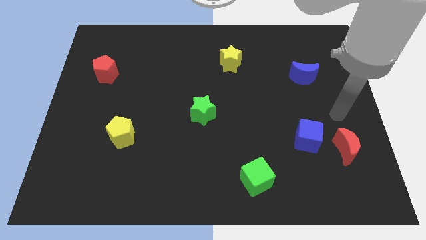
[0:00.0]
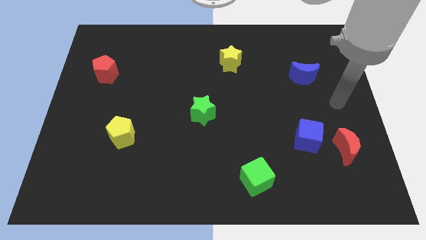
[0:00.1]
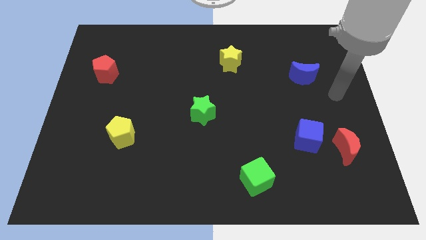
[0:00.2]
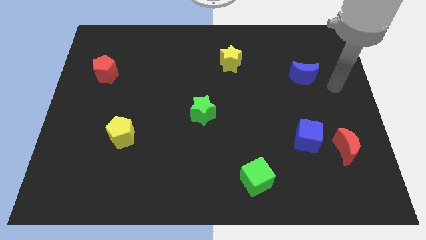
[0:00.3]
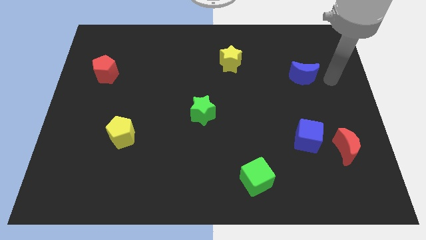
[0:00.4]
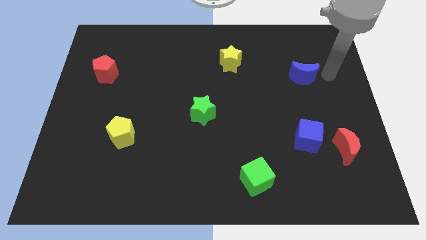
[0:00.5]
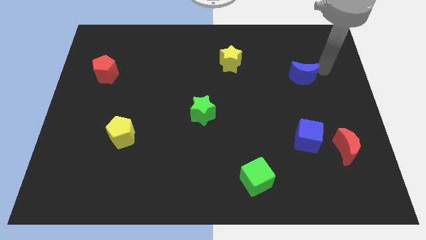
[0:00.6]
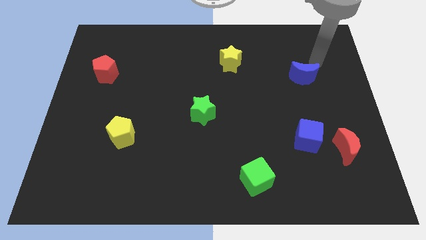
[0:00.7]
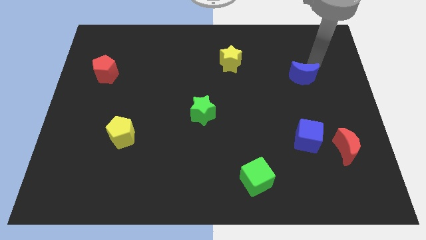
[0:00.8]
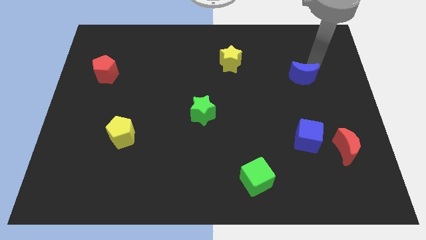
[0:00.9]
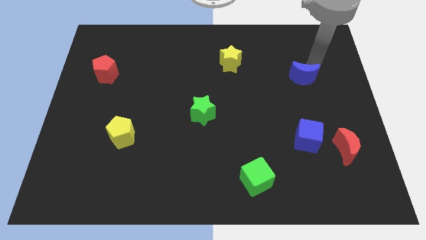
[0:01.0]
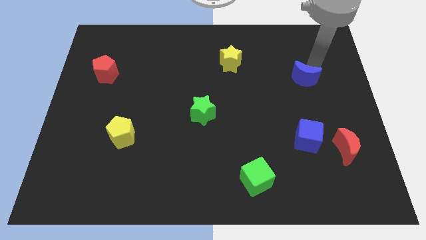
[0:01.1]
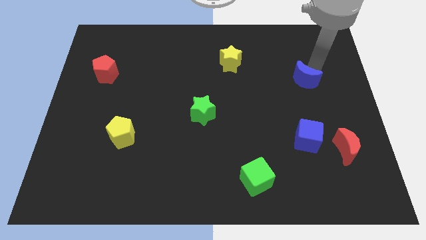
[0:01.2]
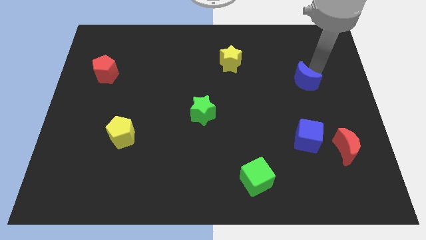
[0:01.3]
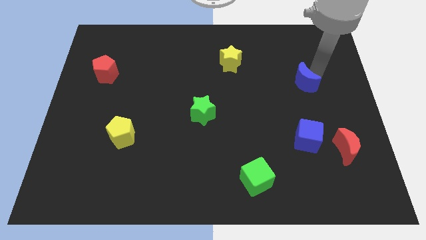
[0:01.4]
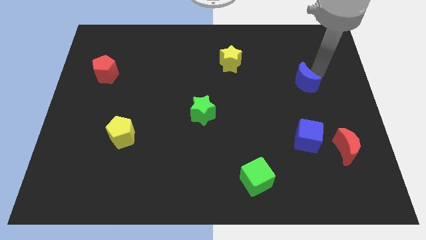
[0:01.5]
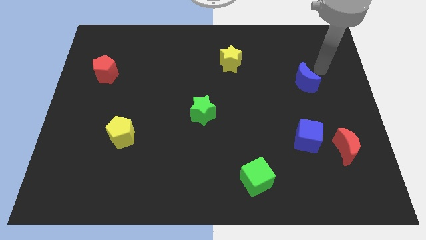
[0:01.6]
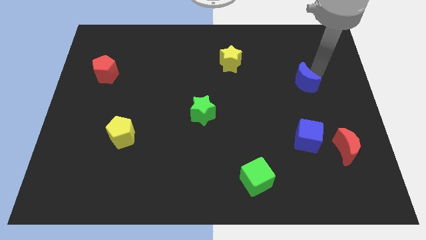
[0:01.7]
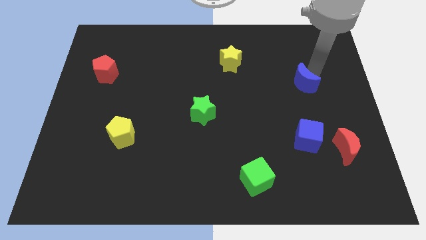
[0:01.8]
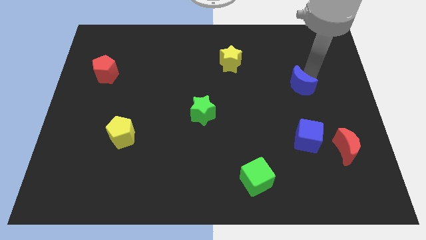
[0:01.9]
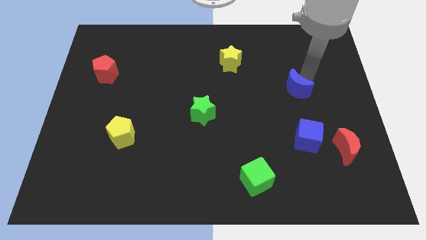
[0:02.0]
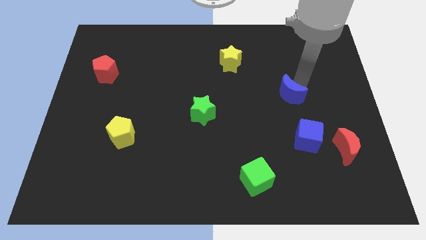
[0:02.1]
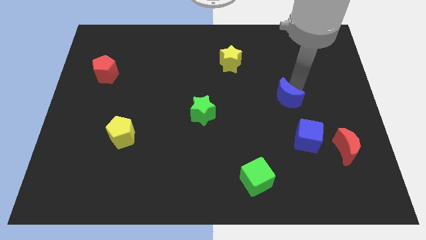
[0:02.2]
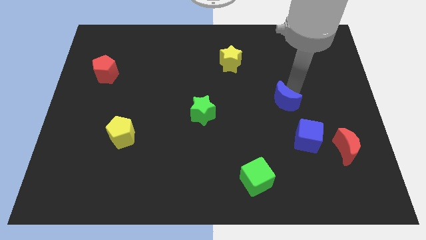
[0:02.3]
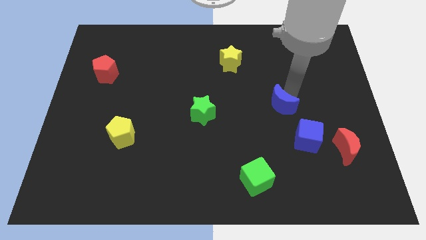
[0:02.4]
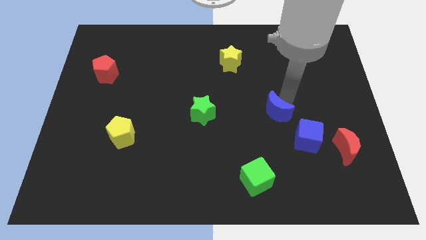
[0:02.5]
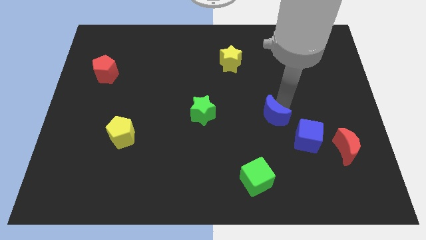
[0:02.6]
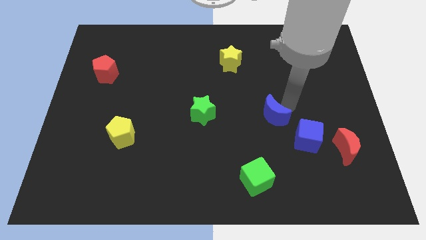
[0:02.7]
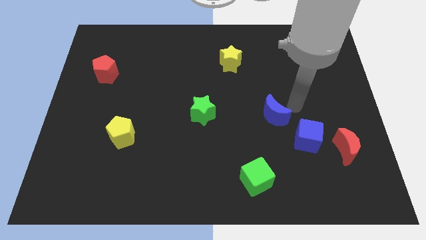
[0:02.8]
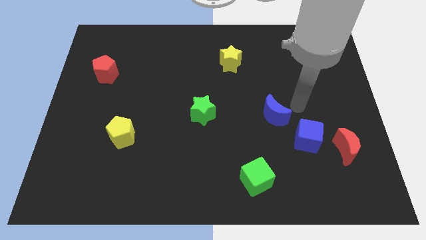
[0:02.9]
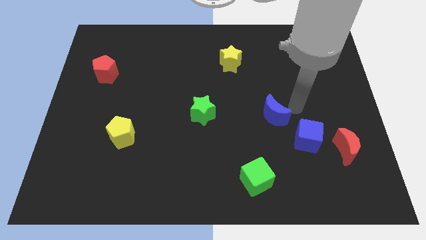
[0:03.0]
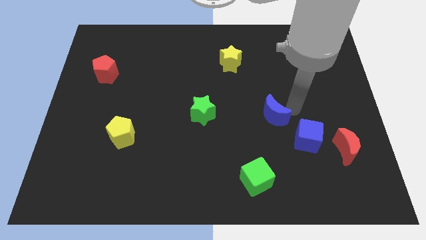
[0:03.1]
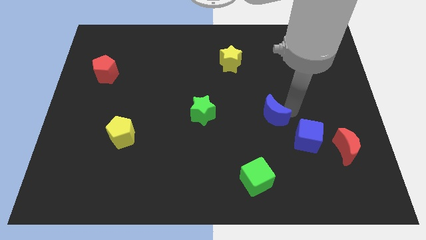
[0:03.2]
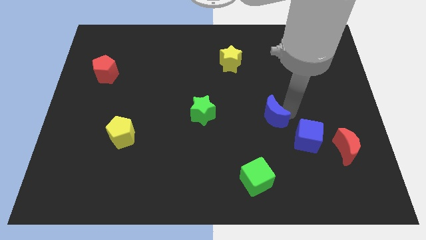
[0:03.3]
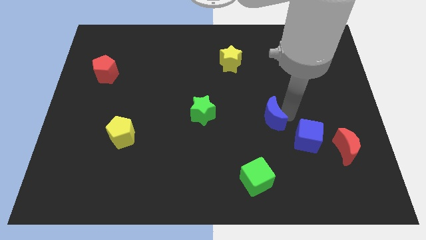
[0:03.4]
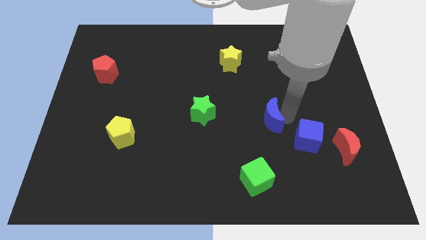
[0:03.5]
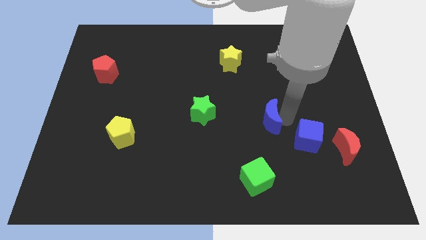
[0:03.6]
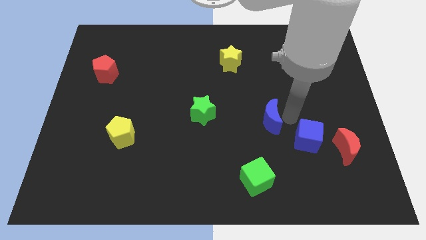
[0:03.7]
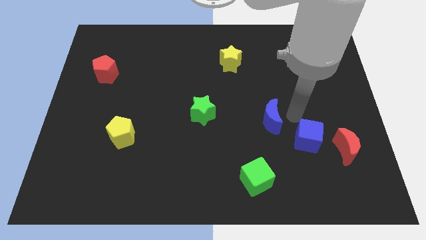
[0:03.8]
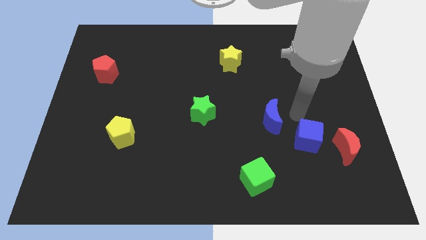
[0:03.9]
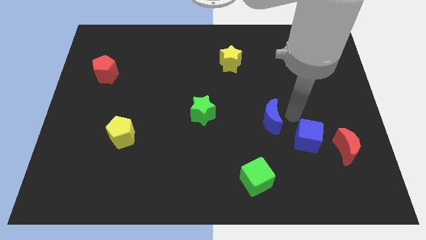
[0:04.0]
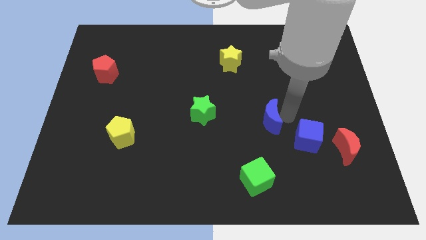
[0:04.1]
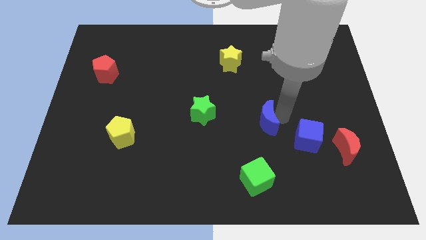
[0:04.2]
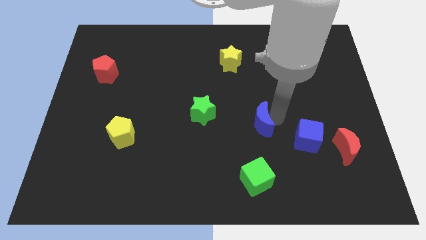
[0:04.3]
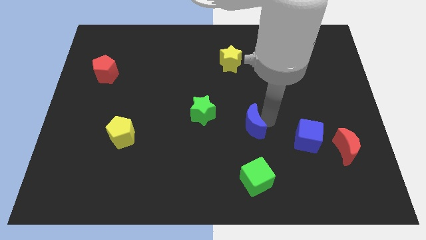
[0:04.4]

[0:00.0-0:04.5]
move the blue moon down and left diagonally

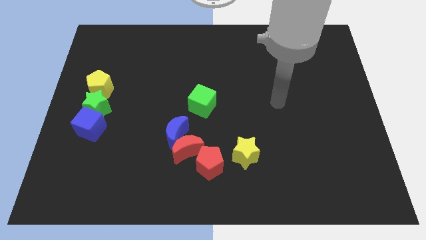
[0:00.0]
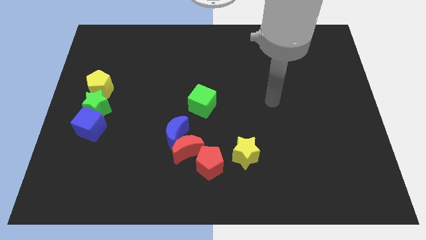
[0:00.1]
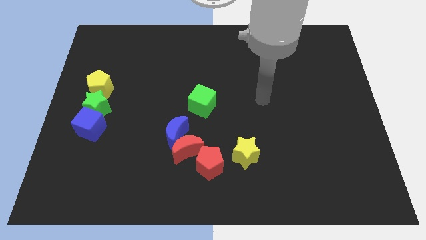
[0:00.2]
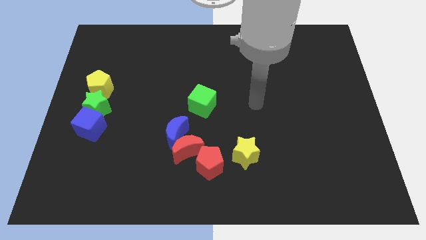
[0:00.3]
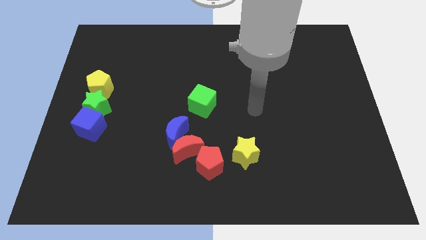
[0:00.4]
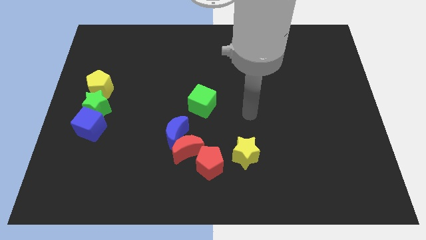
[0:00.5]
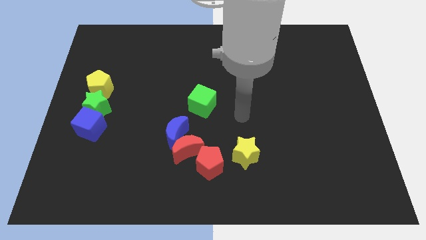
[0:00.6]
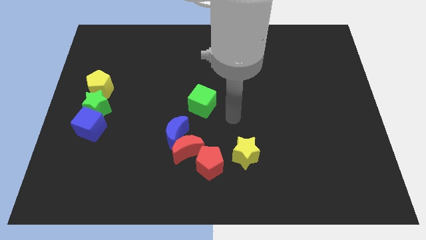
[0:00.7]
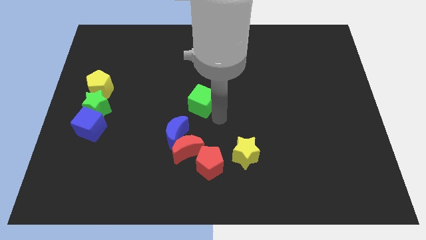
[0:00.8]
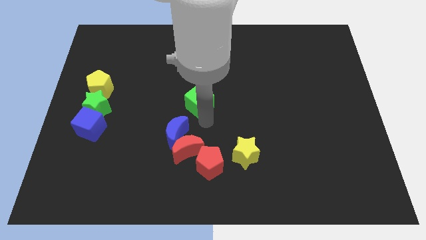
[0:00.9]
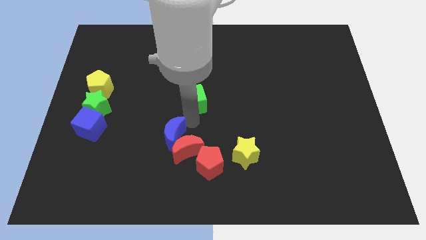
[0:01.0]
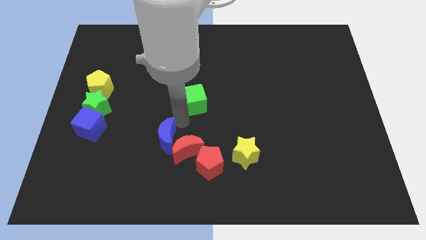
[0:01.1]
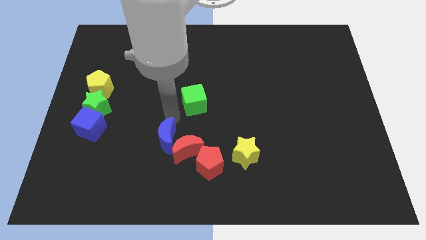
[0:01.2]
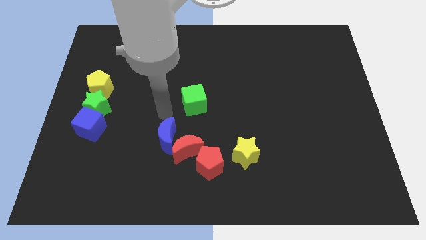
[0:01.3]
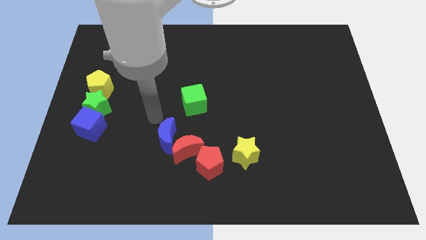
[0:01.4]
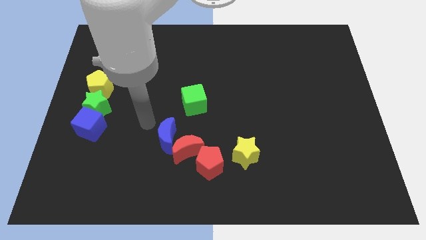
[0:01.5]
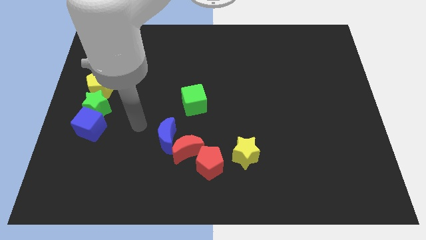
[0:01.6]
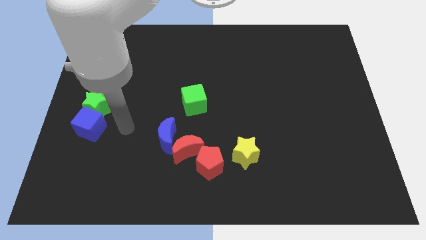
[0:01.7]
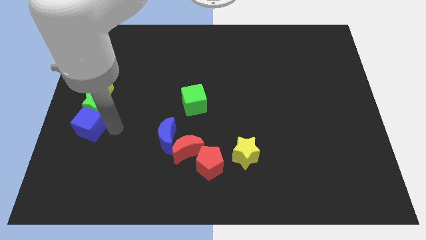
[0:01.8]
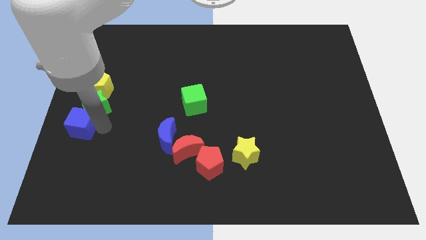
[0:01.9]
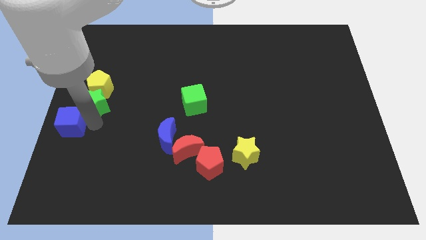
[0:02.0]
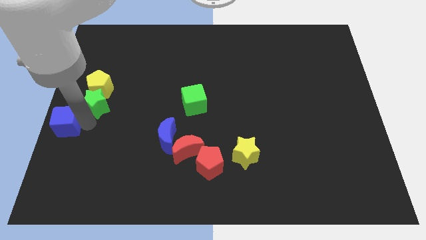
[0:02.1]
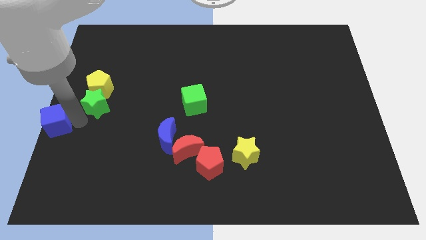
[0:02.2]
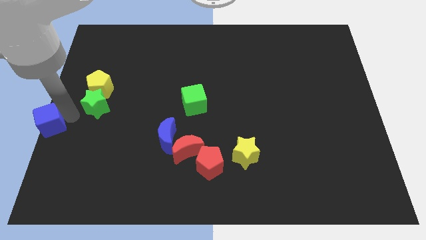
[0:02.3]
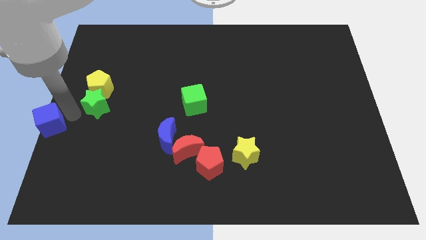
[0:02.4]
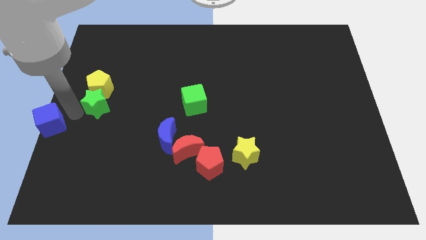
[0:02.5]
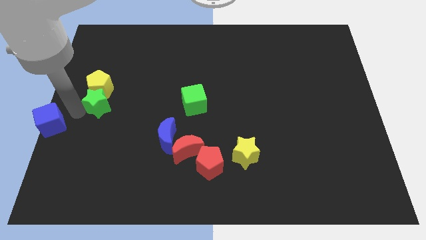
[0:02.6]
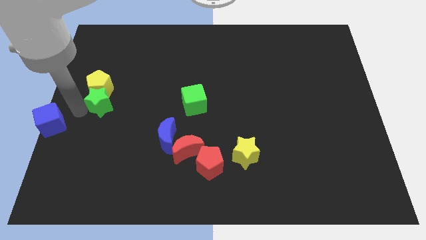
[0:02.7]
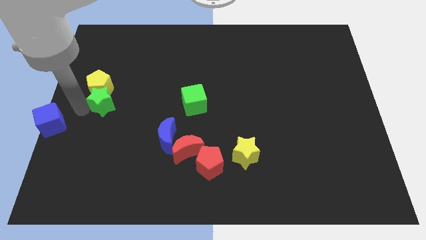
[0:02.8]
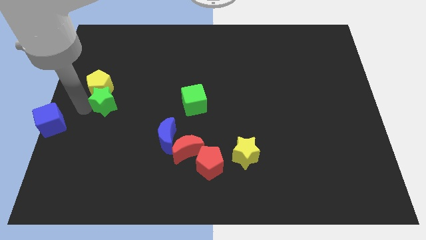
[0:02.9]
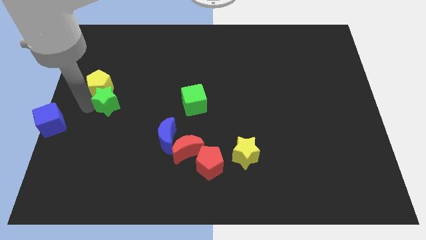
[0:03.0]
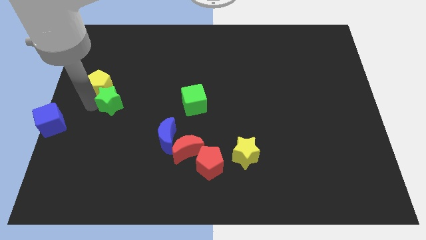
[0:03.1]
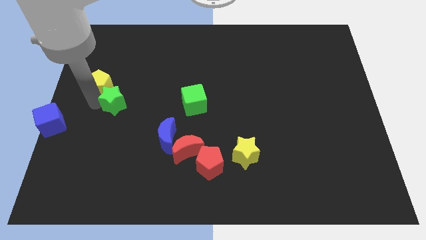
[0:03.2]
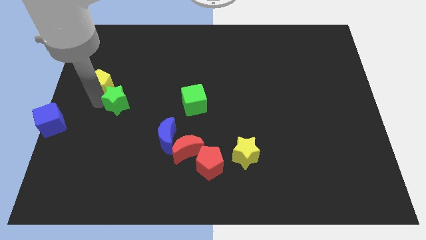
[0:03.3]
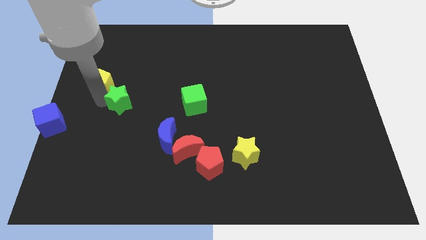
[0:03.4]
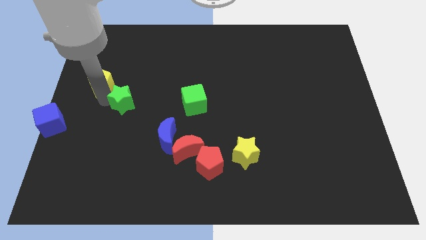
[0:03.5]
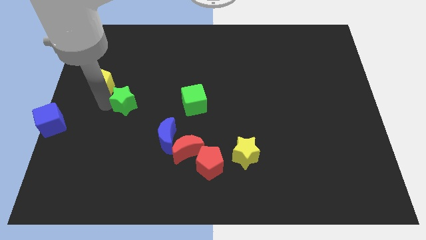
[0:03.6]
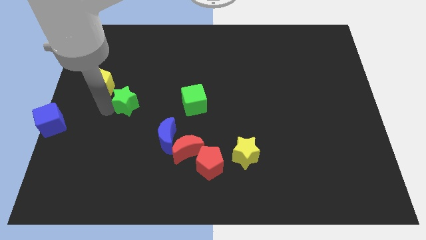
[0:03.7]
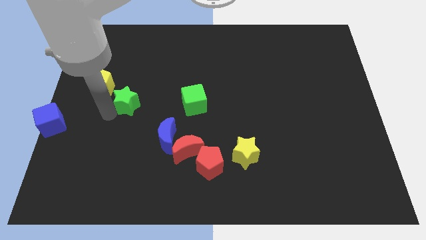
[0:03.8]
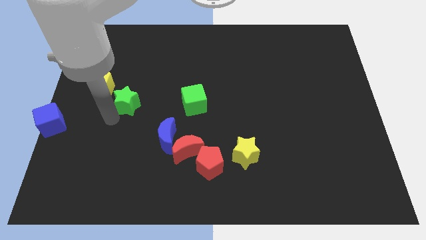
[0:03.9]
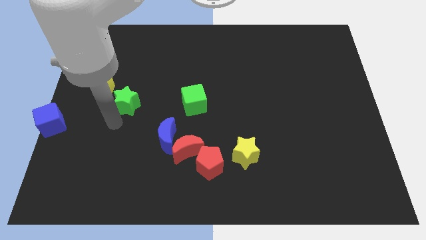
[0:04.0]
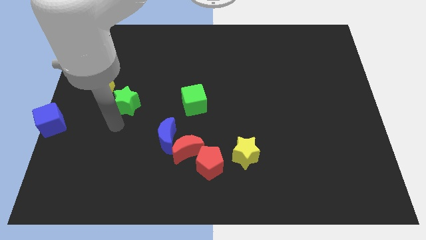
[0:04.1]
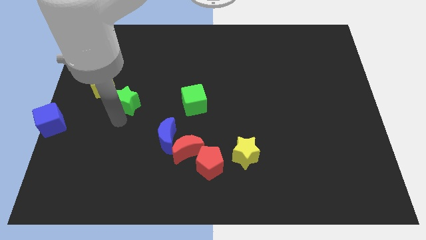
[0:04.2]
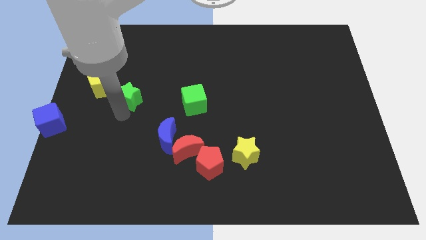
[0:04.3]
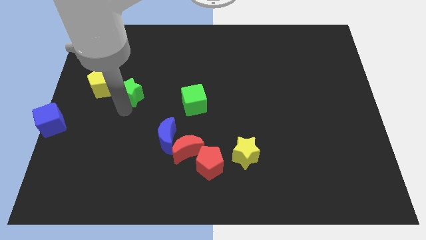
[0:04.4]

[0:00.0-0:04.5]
slightly push the green star upwards and right diagonally
